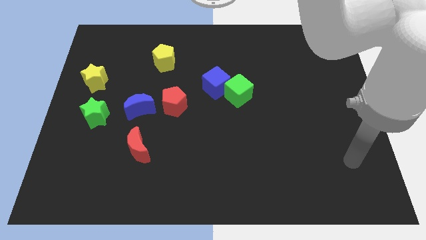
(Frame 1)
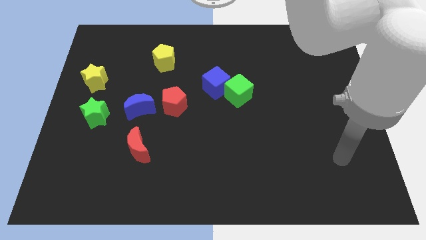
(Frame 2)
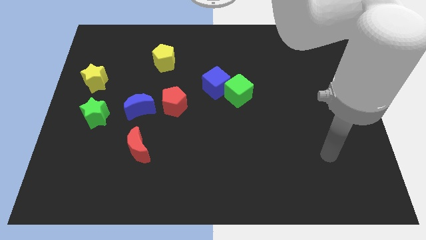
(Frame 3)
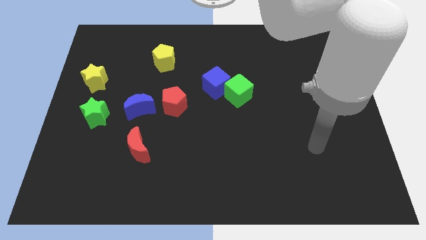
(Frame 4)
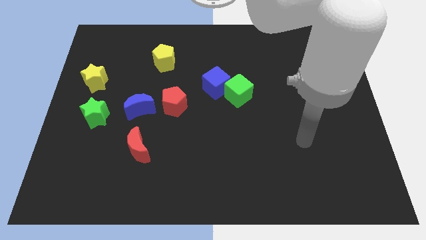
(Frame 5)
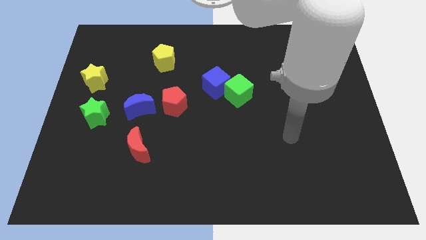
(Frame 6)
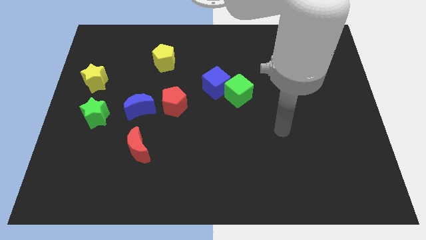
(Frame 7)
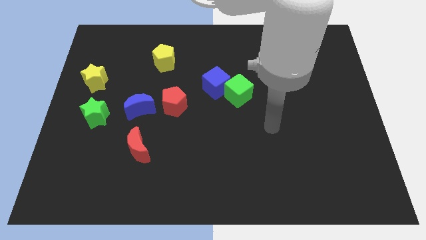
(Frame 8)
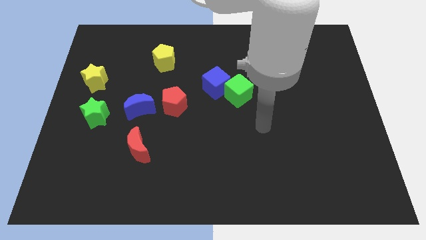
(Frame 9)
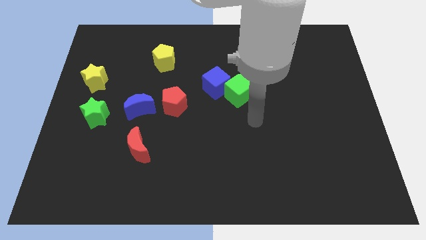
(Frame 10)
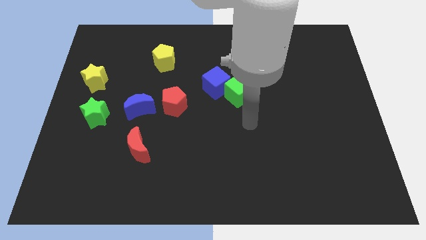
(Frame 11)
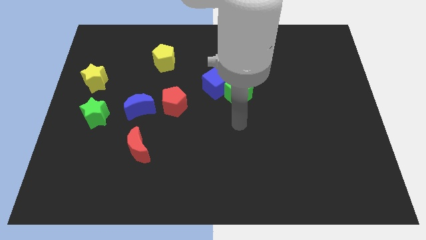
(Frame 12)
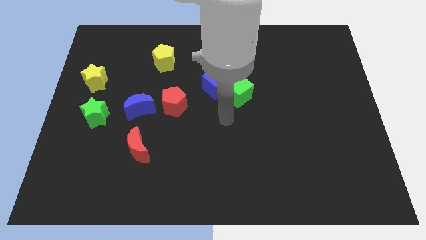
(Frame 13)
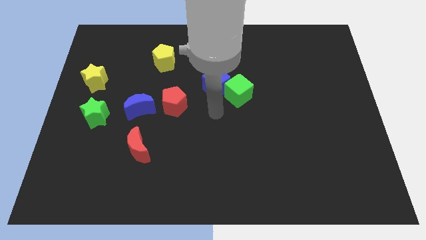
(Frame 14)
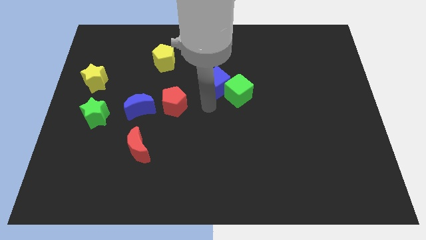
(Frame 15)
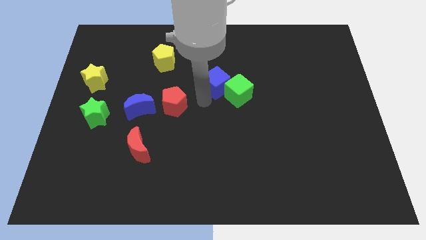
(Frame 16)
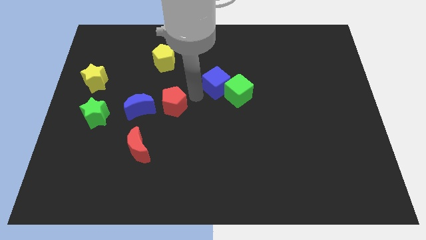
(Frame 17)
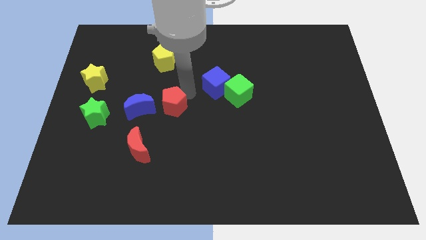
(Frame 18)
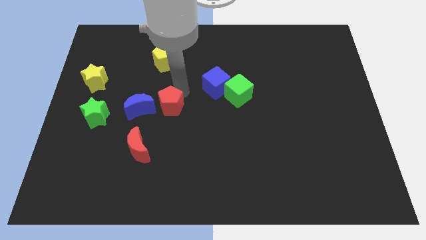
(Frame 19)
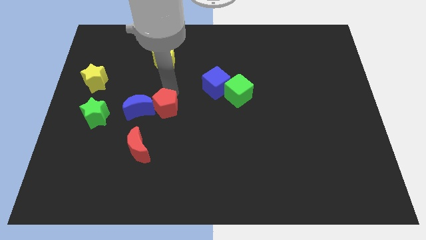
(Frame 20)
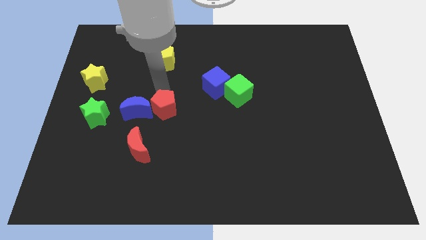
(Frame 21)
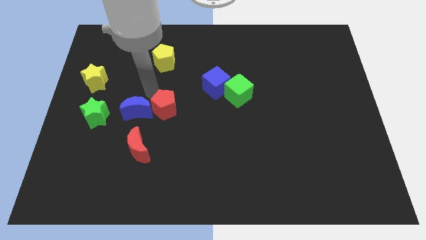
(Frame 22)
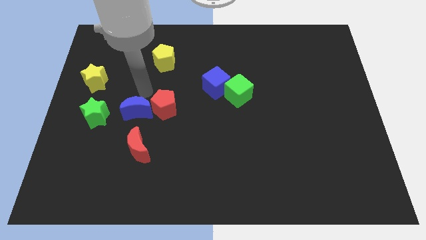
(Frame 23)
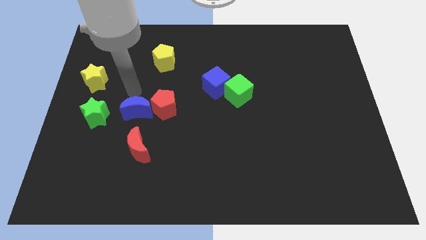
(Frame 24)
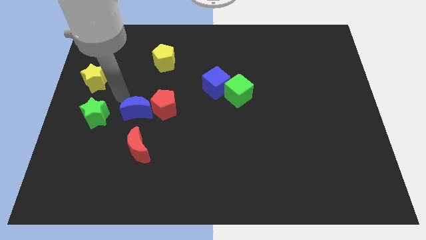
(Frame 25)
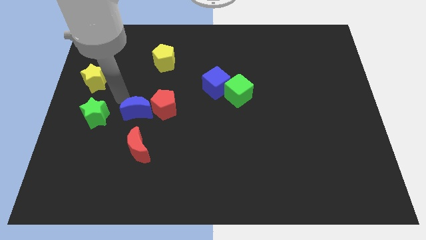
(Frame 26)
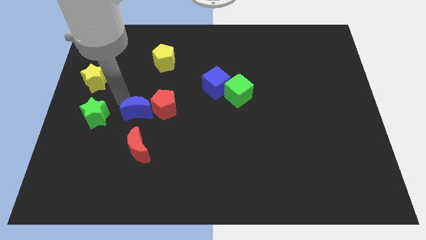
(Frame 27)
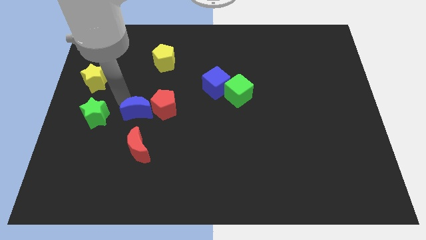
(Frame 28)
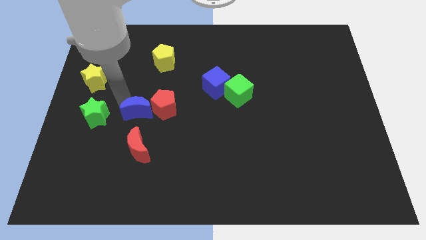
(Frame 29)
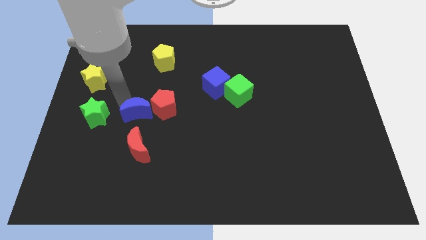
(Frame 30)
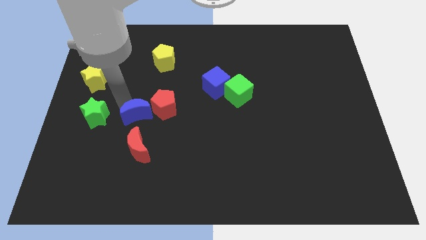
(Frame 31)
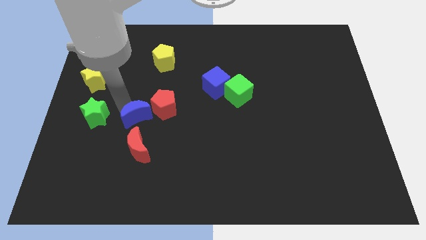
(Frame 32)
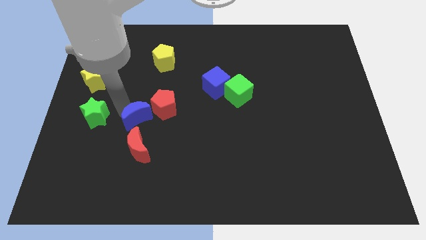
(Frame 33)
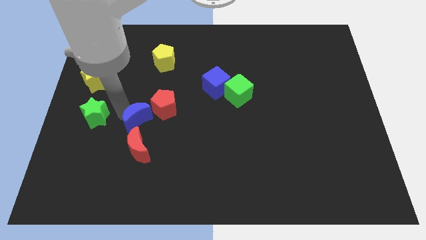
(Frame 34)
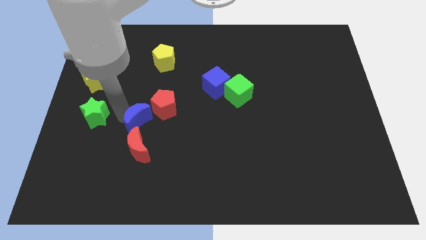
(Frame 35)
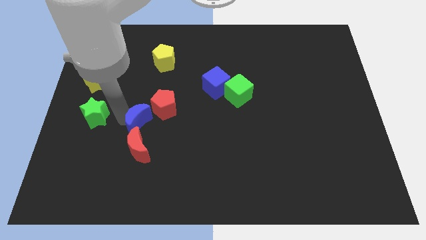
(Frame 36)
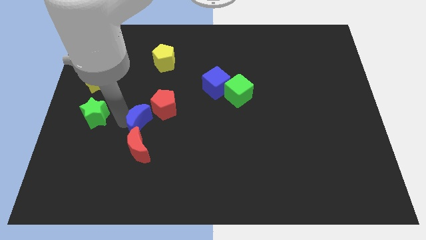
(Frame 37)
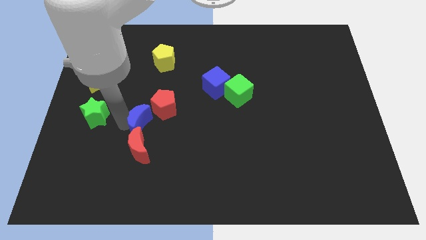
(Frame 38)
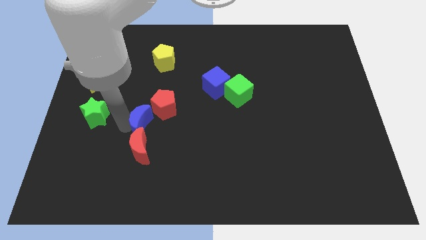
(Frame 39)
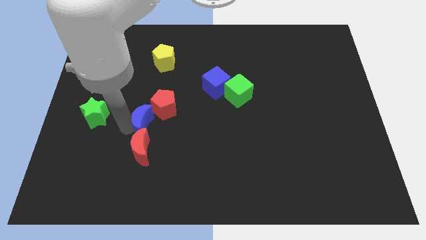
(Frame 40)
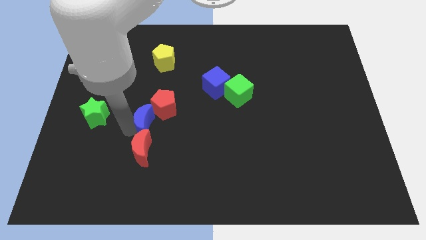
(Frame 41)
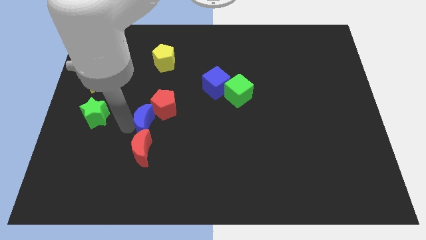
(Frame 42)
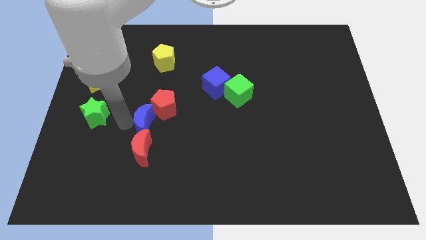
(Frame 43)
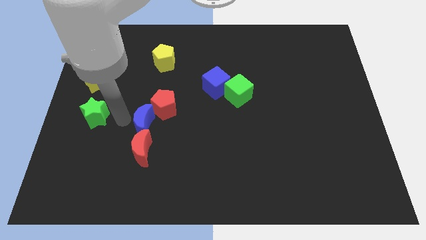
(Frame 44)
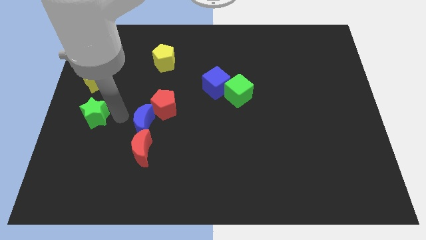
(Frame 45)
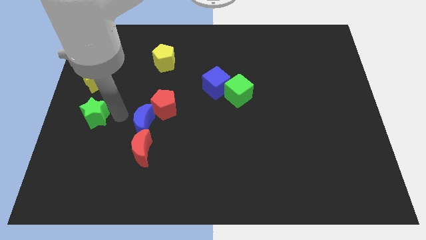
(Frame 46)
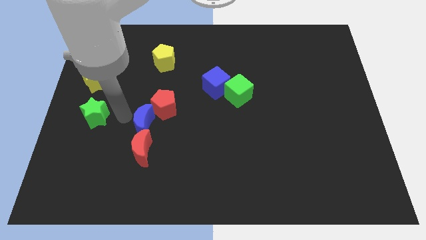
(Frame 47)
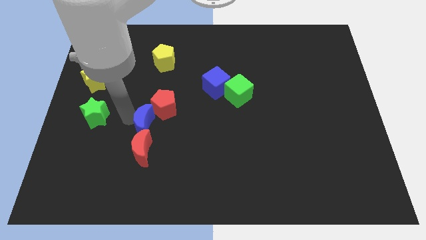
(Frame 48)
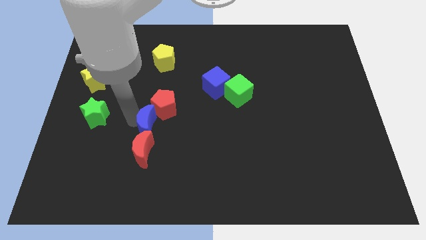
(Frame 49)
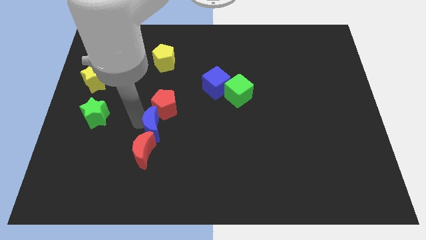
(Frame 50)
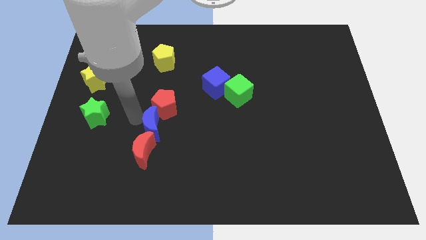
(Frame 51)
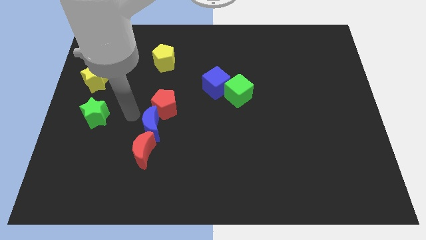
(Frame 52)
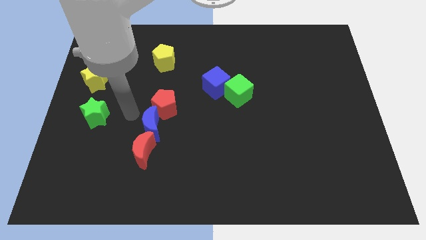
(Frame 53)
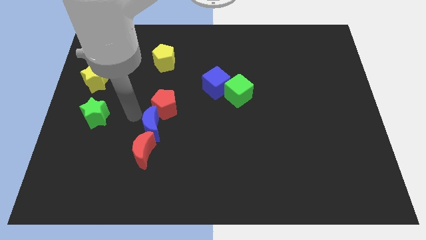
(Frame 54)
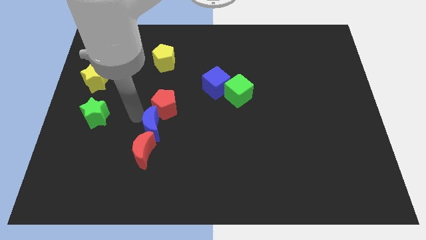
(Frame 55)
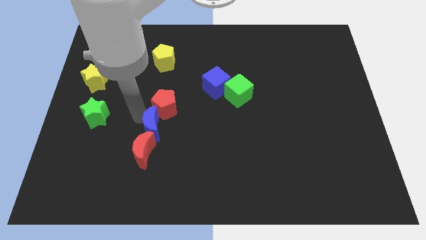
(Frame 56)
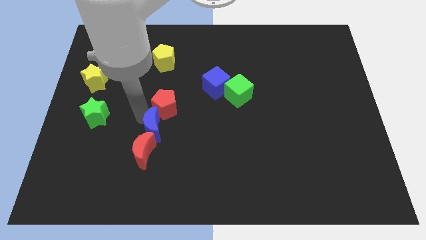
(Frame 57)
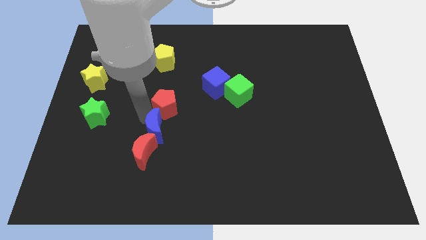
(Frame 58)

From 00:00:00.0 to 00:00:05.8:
push the blue moon a little downwards and to the right diagonally

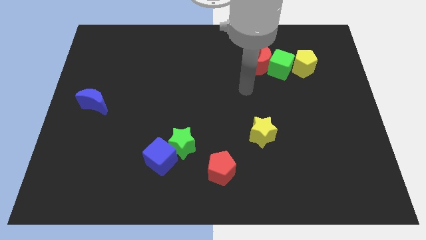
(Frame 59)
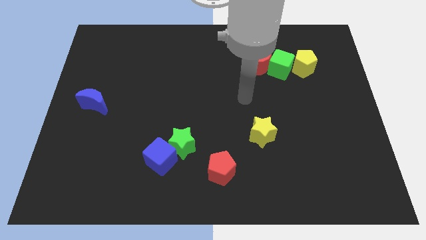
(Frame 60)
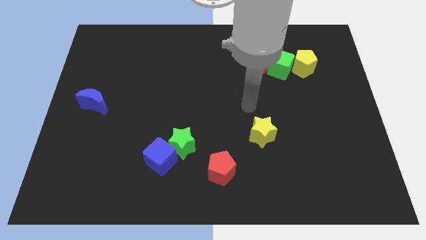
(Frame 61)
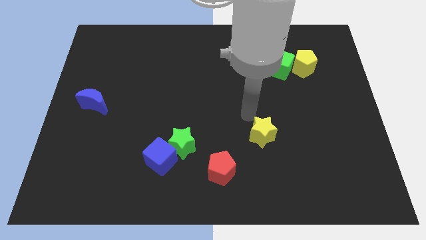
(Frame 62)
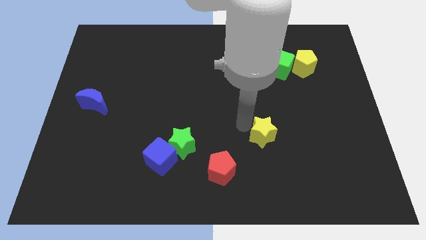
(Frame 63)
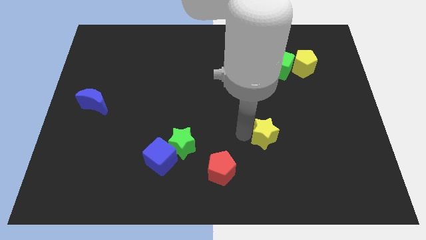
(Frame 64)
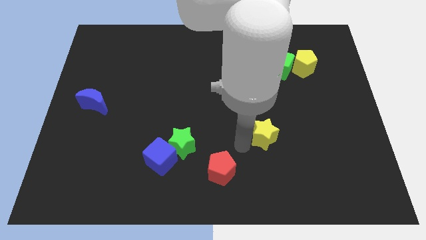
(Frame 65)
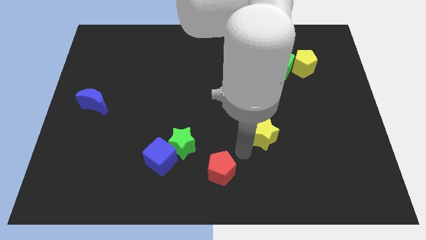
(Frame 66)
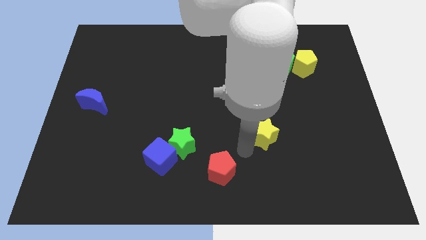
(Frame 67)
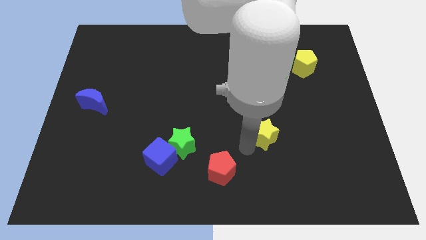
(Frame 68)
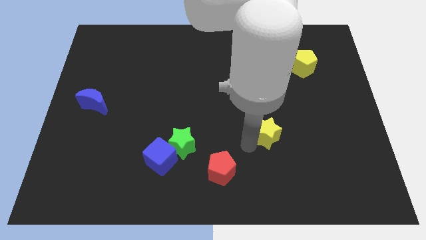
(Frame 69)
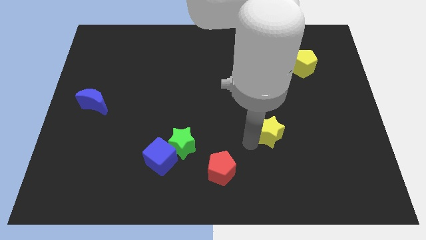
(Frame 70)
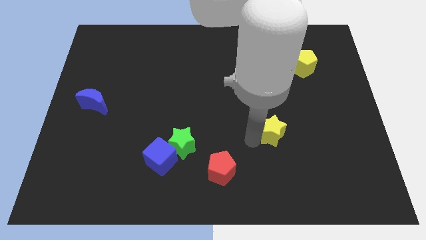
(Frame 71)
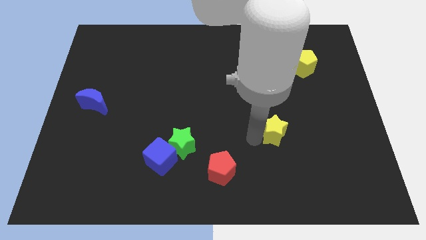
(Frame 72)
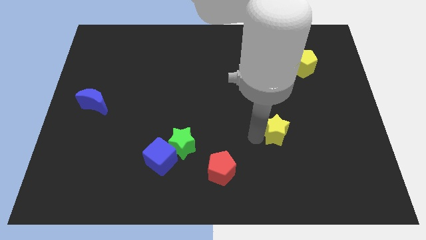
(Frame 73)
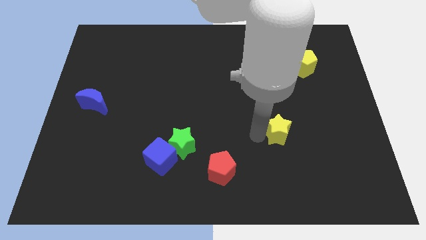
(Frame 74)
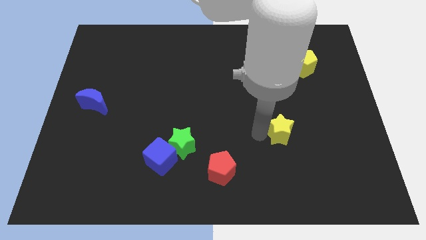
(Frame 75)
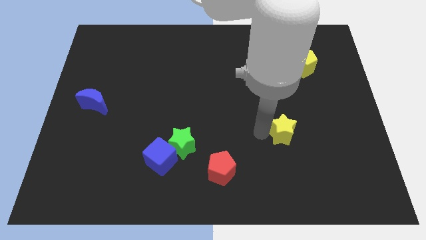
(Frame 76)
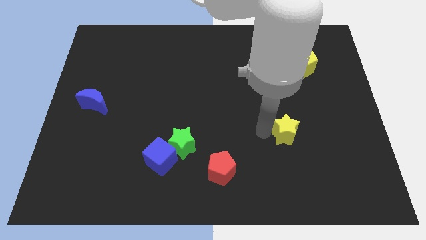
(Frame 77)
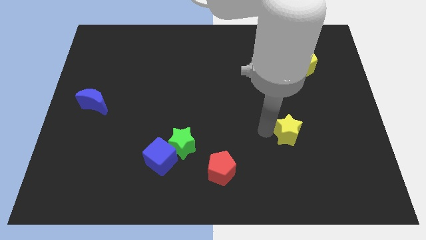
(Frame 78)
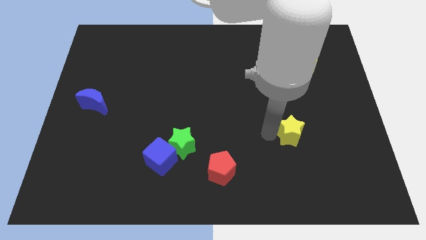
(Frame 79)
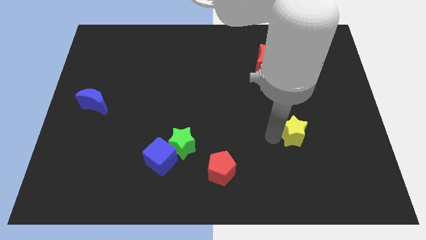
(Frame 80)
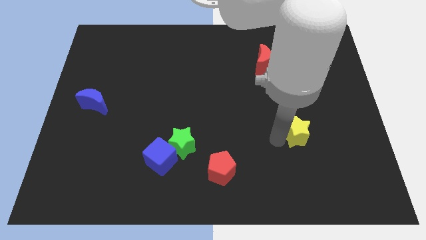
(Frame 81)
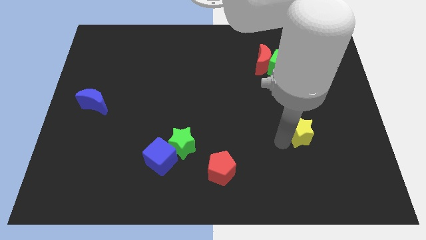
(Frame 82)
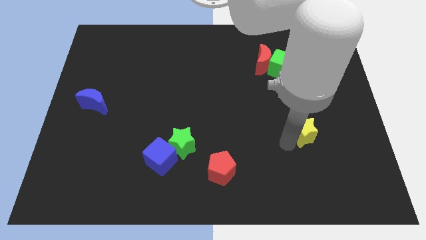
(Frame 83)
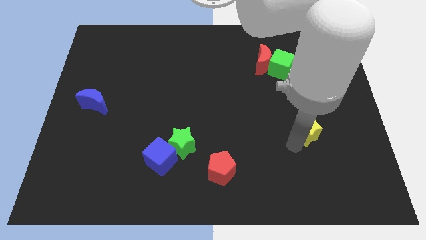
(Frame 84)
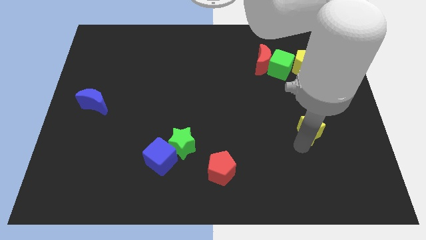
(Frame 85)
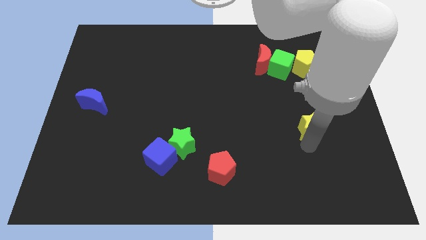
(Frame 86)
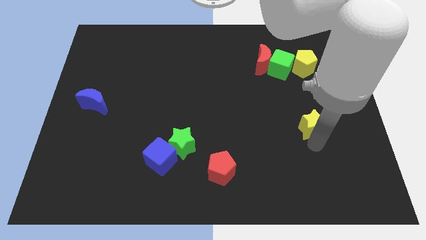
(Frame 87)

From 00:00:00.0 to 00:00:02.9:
move the yellow star a little up and then right
